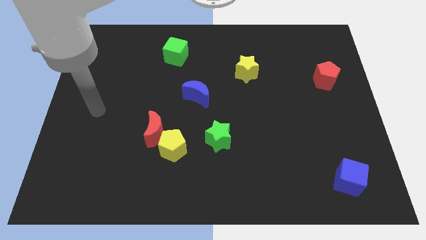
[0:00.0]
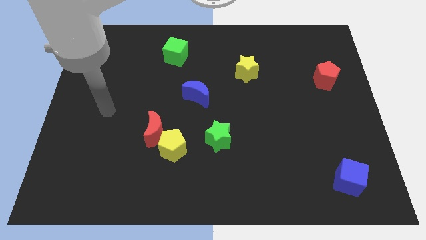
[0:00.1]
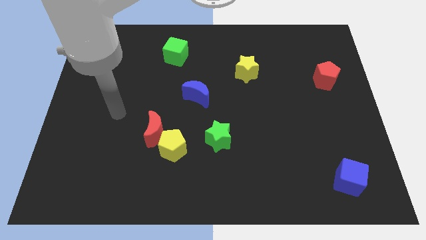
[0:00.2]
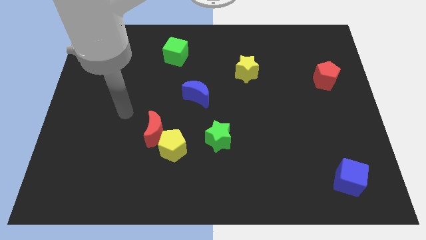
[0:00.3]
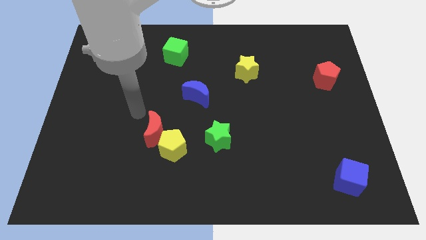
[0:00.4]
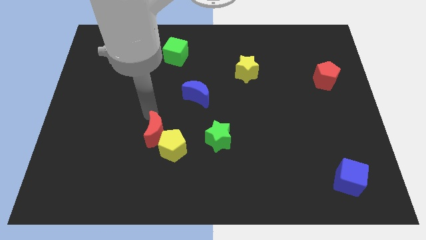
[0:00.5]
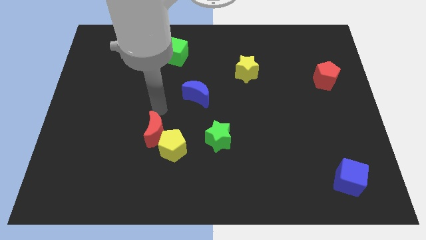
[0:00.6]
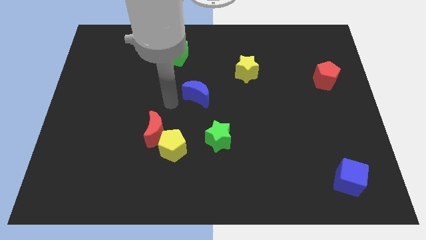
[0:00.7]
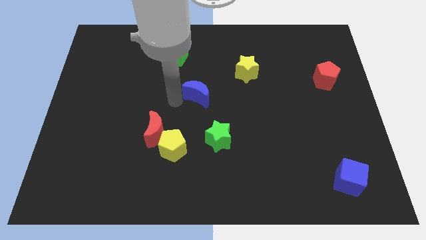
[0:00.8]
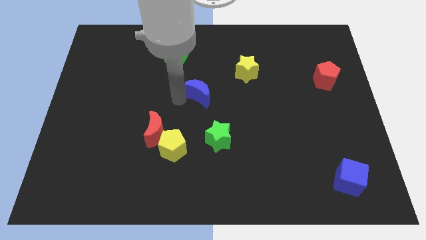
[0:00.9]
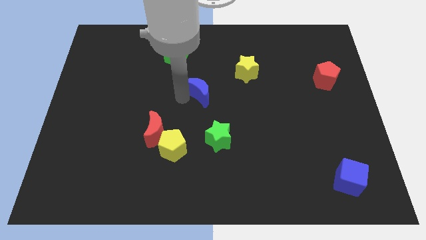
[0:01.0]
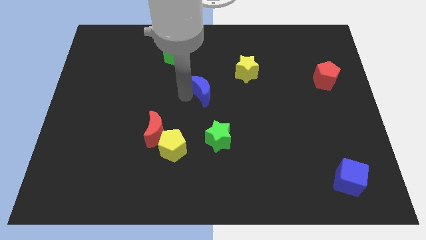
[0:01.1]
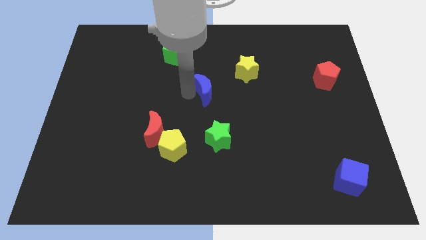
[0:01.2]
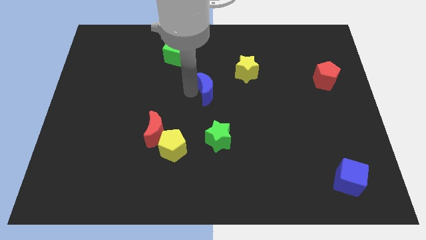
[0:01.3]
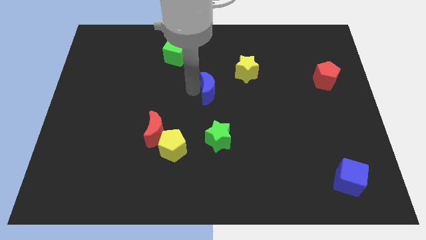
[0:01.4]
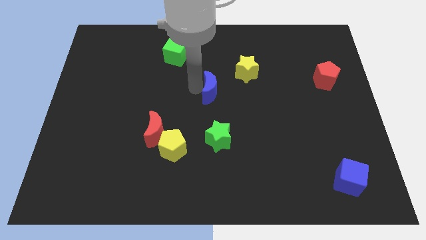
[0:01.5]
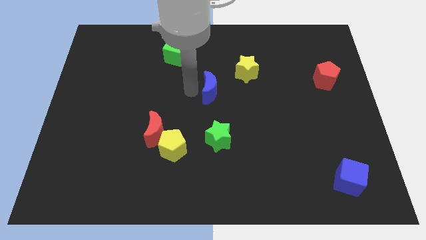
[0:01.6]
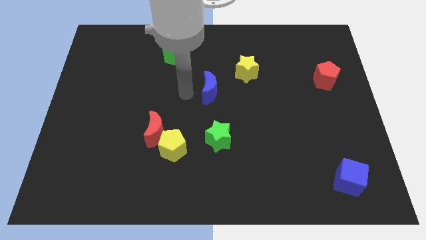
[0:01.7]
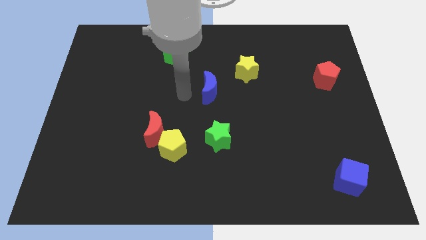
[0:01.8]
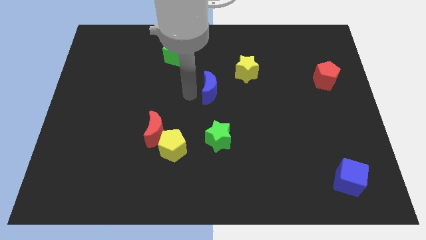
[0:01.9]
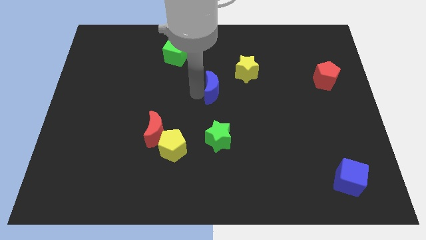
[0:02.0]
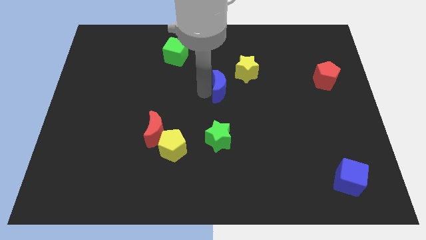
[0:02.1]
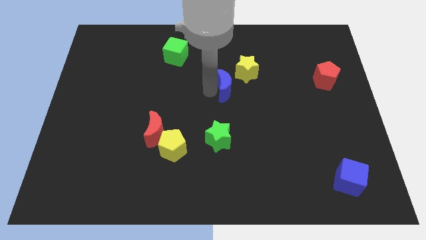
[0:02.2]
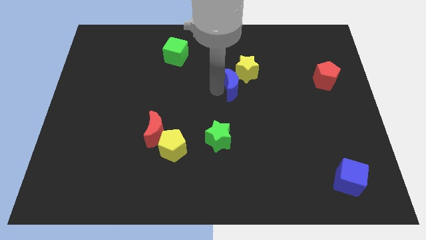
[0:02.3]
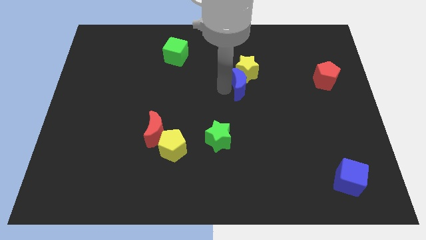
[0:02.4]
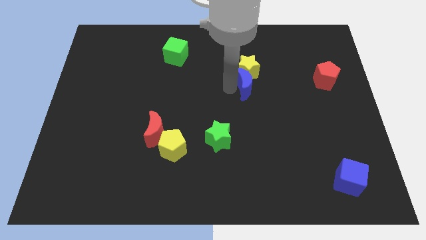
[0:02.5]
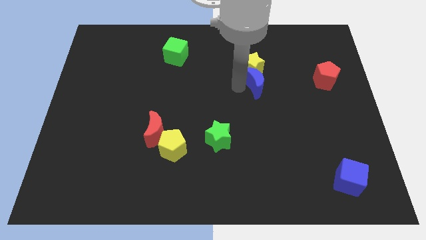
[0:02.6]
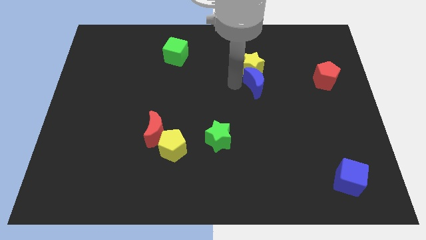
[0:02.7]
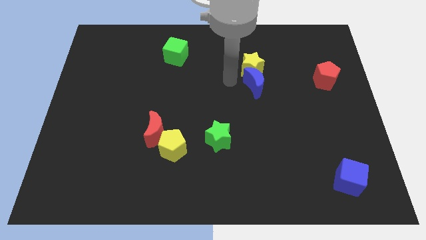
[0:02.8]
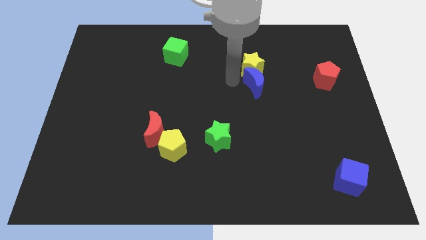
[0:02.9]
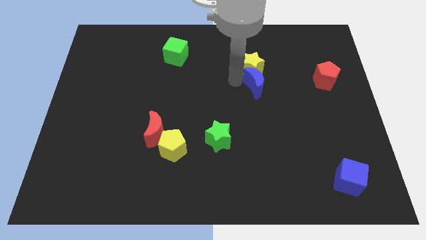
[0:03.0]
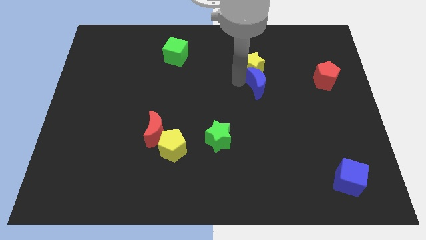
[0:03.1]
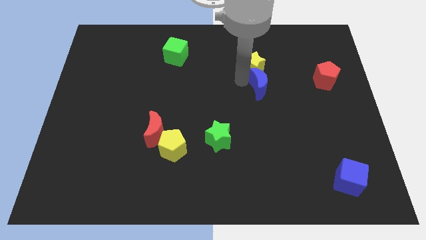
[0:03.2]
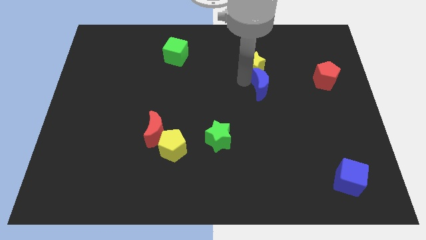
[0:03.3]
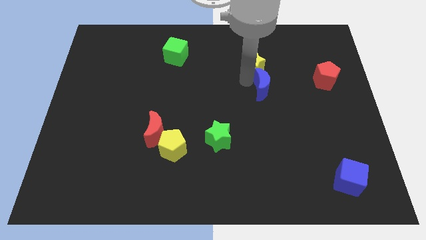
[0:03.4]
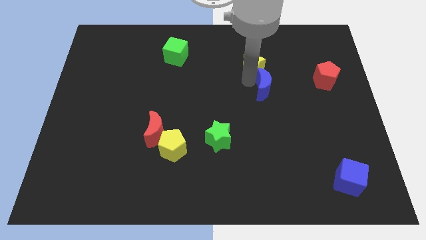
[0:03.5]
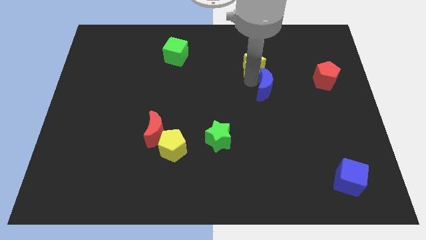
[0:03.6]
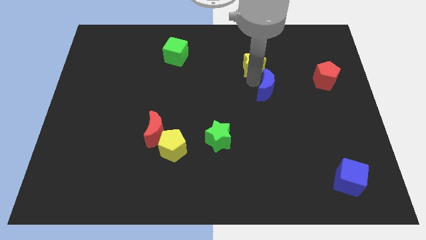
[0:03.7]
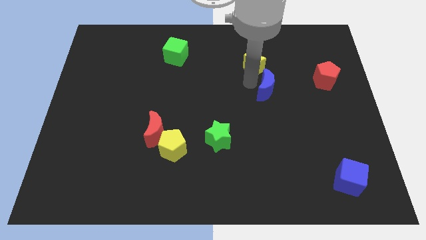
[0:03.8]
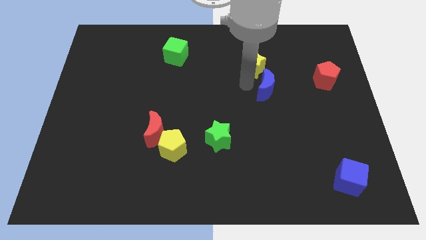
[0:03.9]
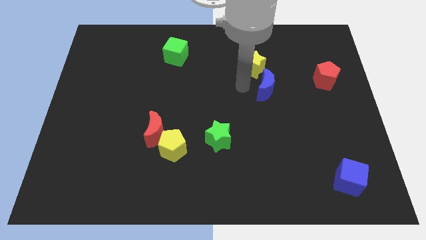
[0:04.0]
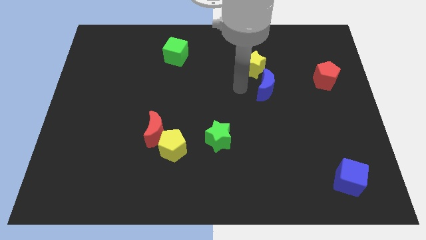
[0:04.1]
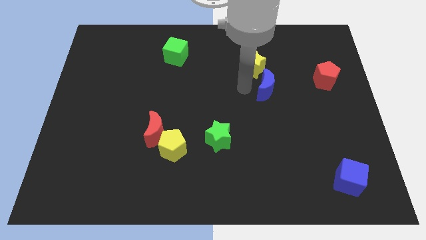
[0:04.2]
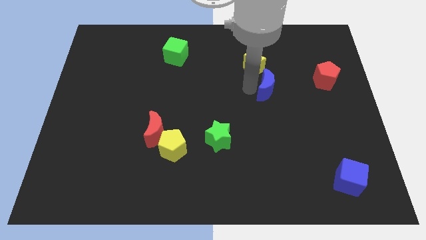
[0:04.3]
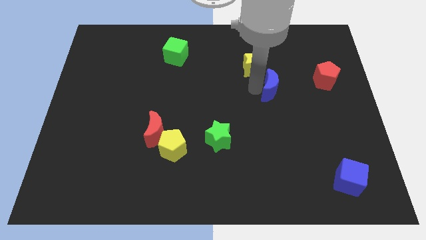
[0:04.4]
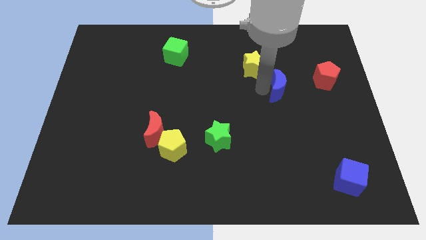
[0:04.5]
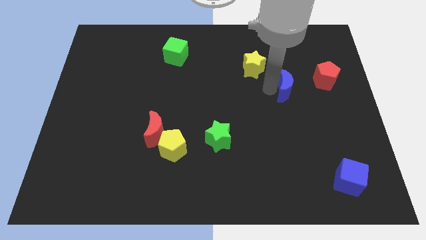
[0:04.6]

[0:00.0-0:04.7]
move the blue moon right

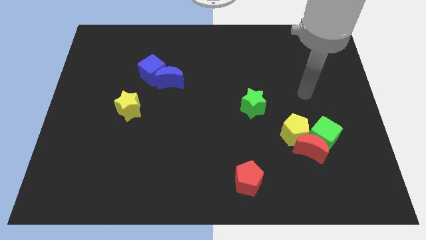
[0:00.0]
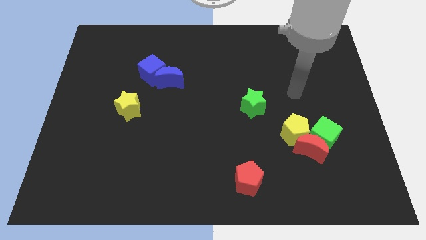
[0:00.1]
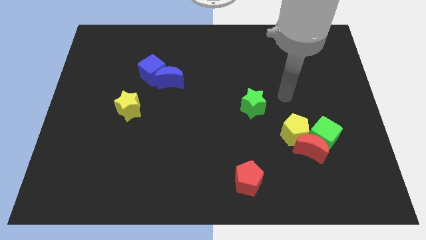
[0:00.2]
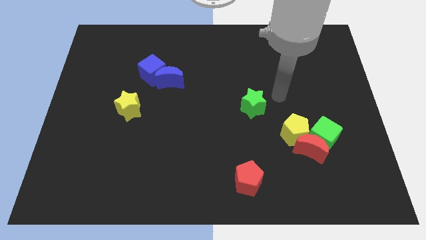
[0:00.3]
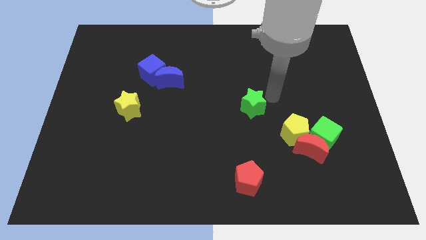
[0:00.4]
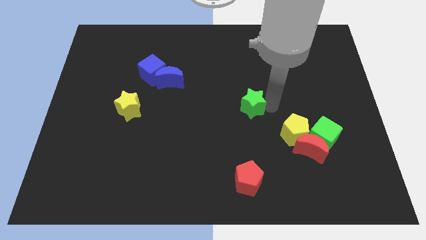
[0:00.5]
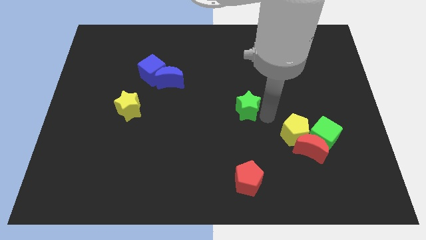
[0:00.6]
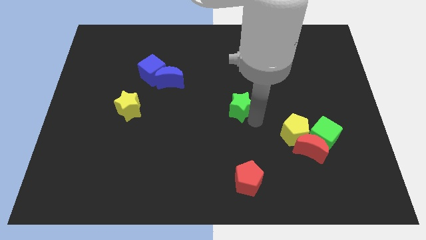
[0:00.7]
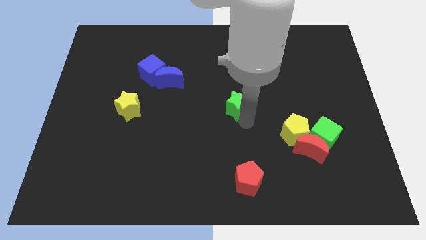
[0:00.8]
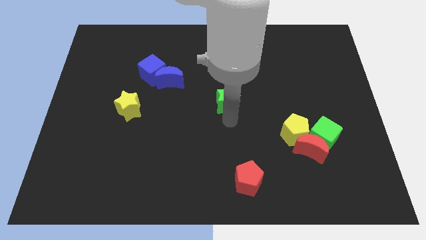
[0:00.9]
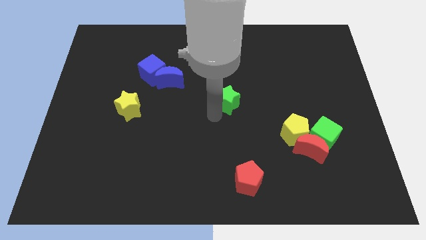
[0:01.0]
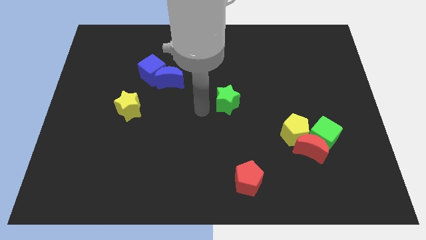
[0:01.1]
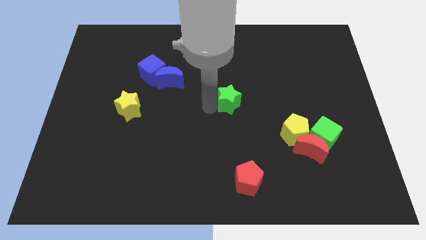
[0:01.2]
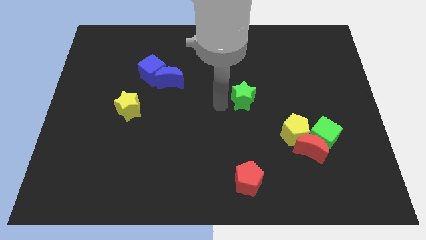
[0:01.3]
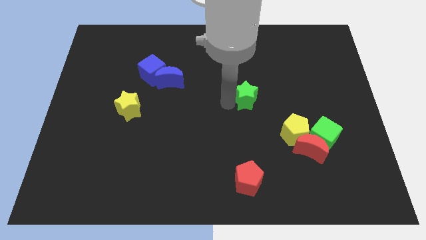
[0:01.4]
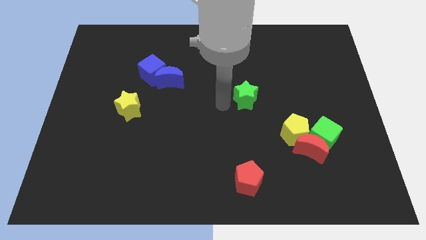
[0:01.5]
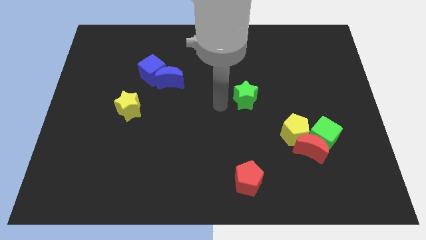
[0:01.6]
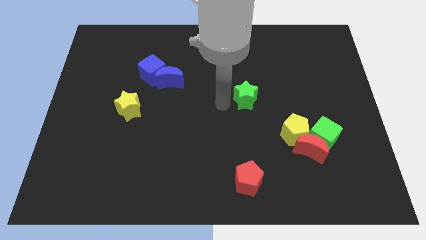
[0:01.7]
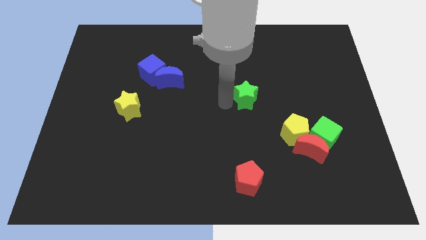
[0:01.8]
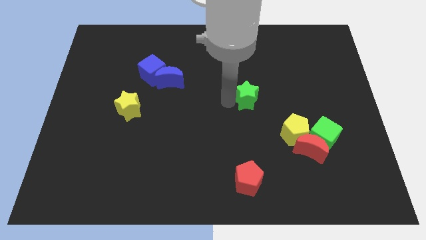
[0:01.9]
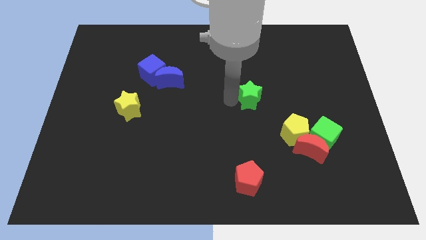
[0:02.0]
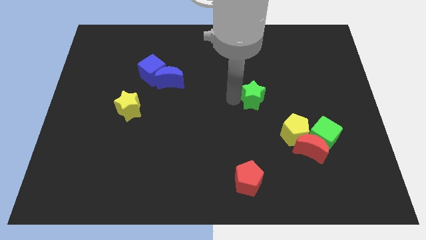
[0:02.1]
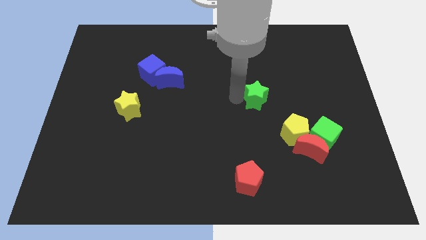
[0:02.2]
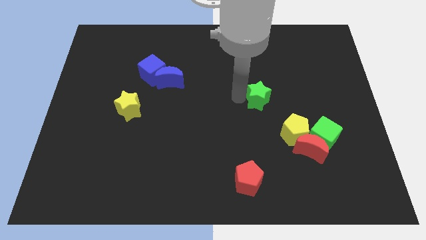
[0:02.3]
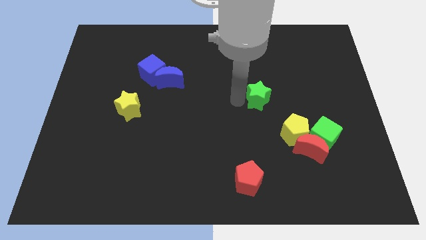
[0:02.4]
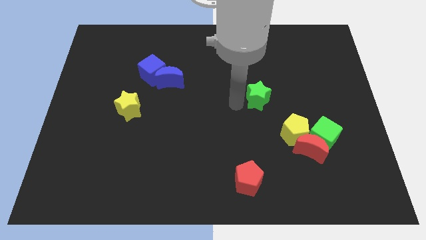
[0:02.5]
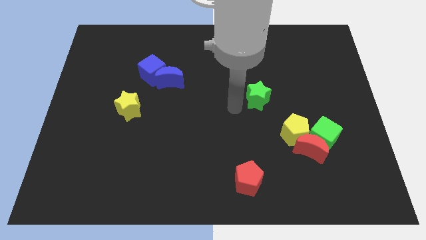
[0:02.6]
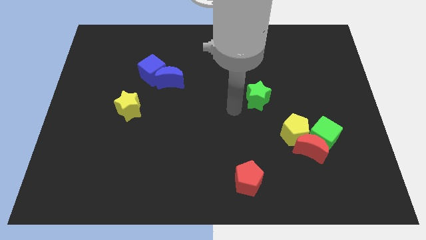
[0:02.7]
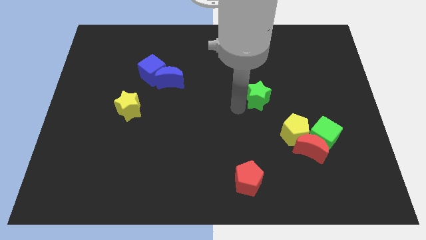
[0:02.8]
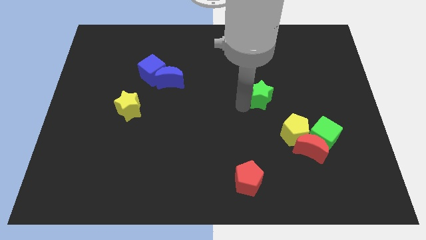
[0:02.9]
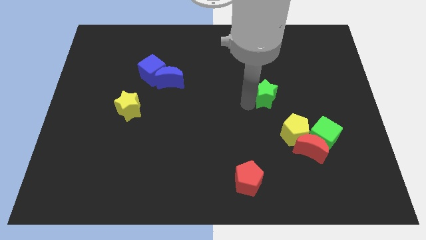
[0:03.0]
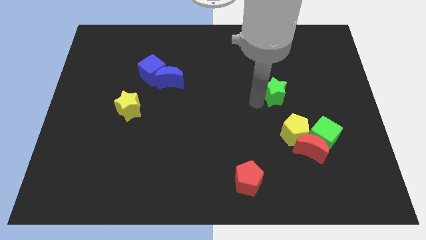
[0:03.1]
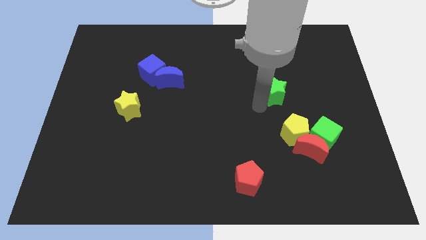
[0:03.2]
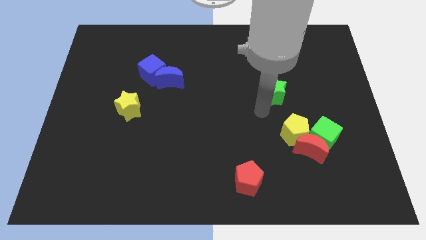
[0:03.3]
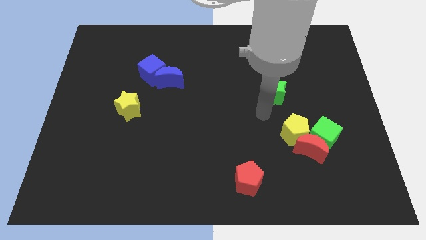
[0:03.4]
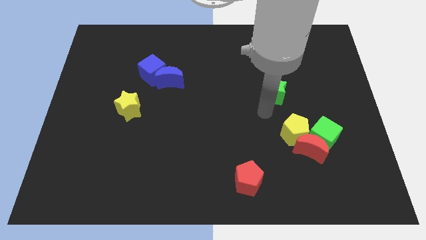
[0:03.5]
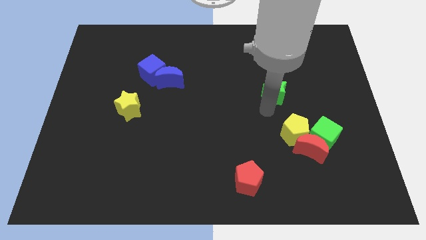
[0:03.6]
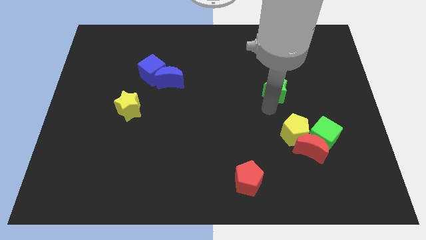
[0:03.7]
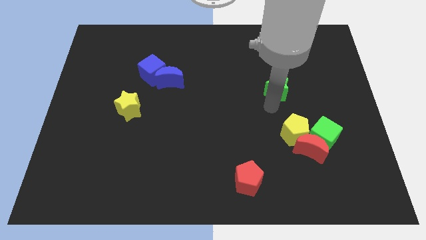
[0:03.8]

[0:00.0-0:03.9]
slide the green star diagonally upwards and to the right a little
